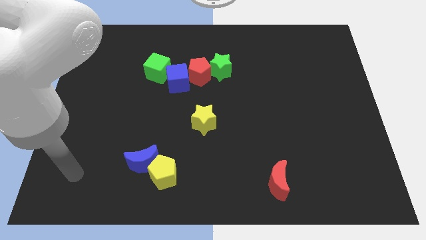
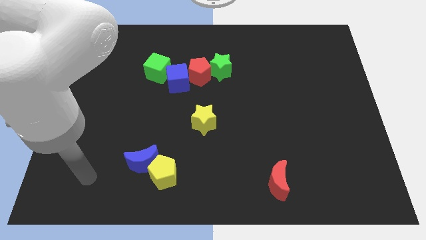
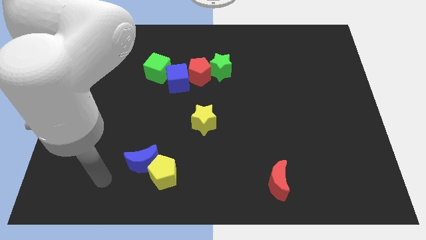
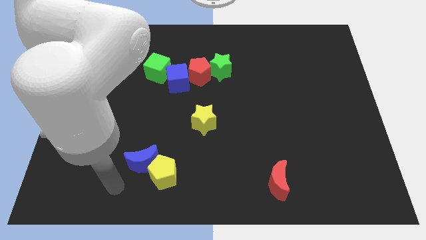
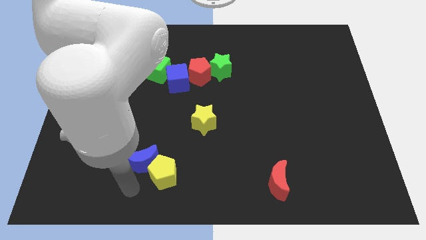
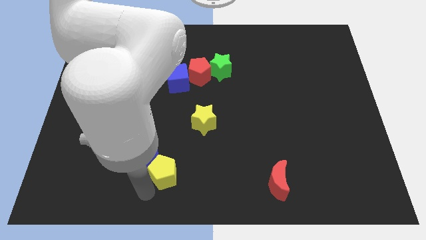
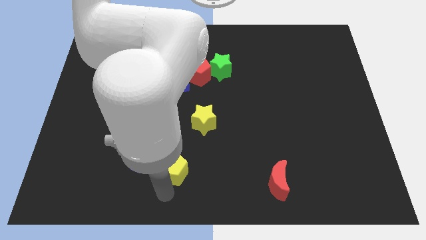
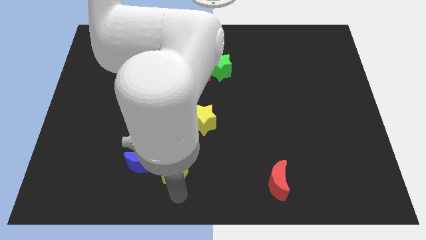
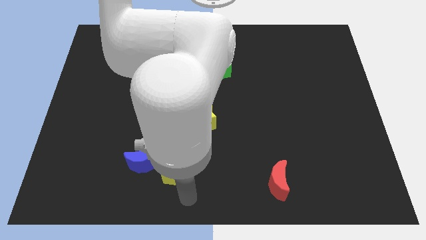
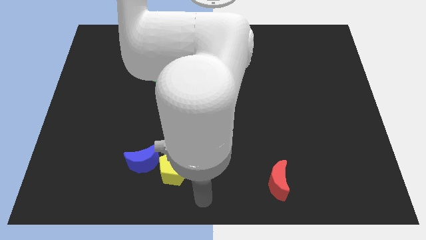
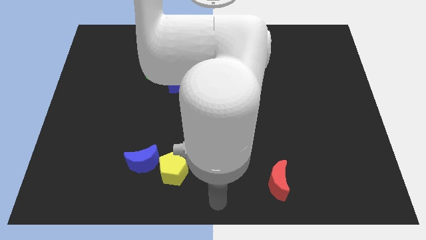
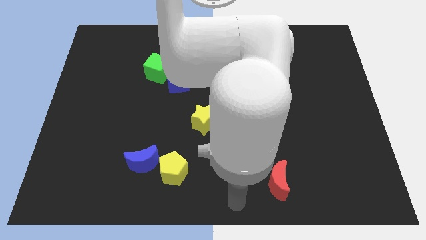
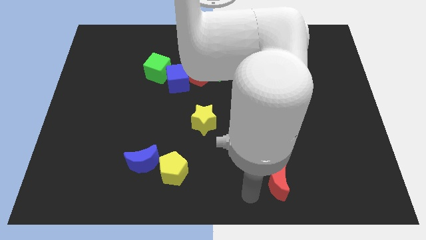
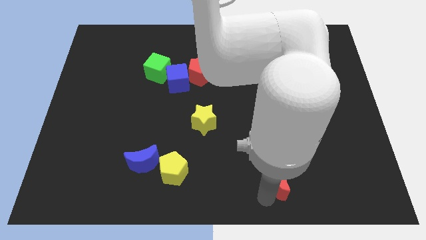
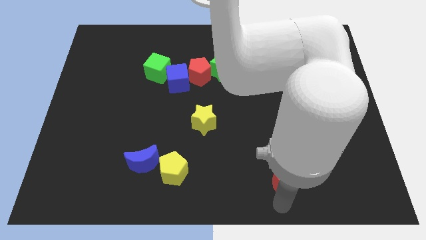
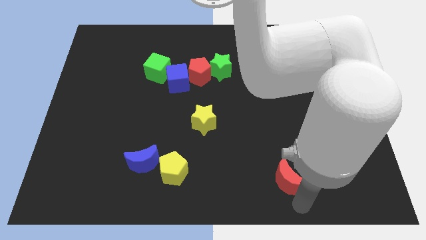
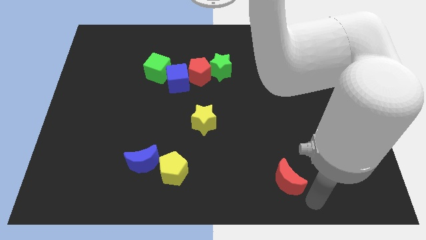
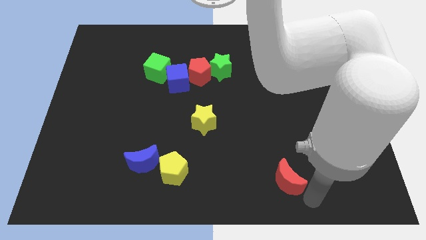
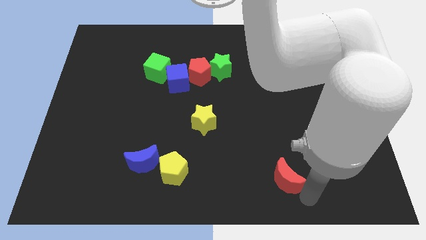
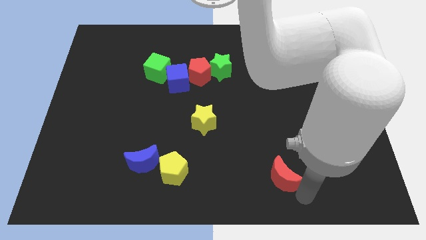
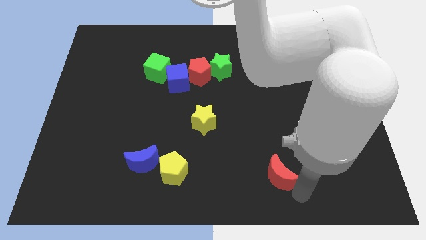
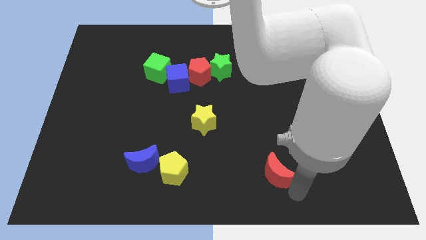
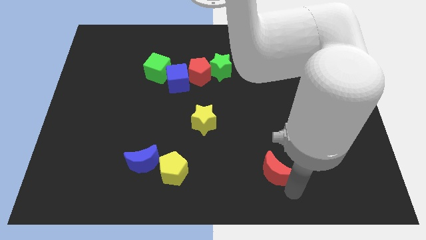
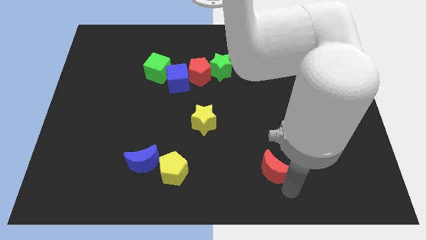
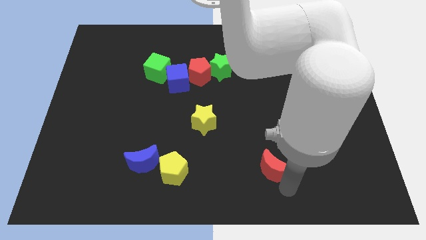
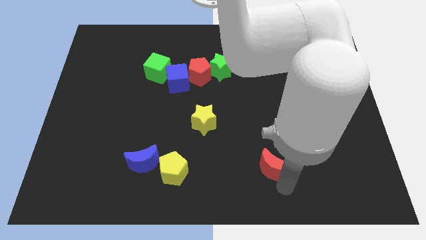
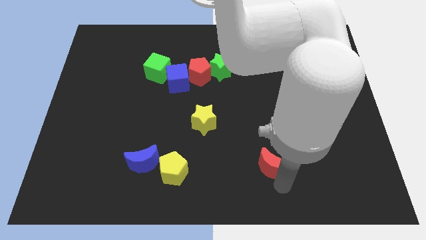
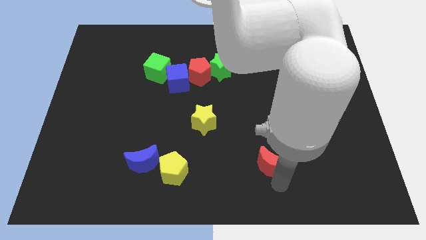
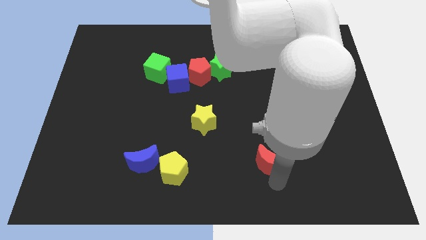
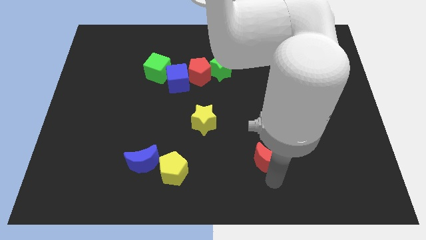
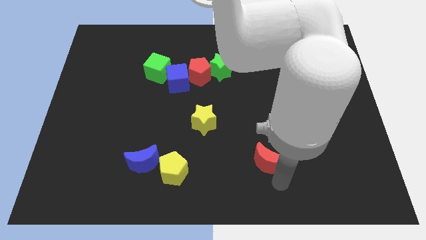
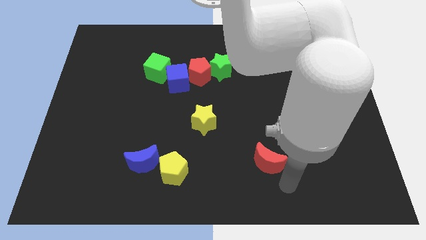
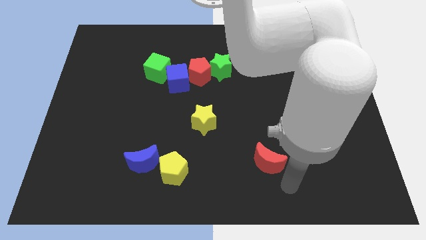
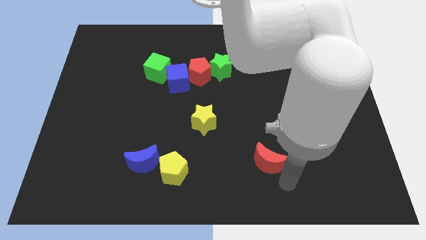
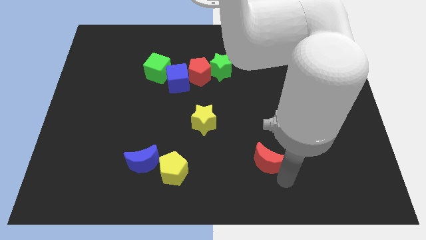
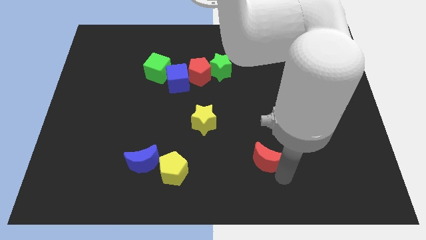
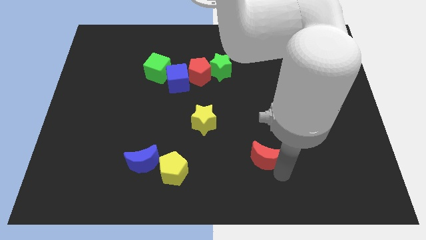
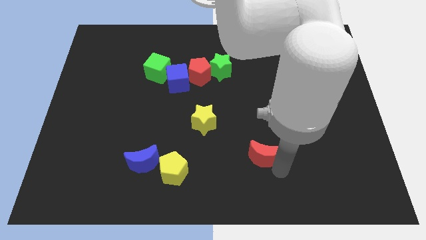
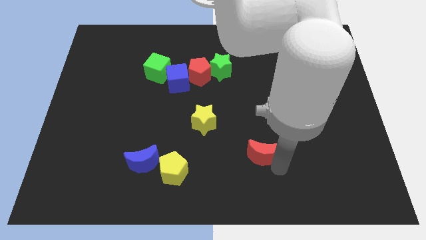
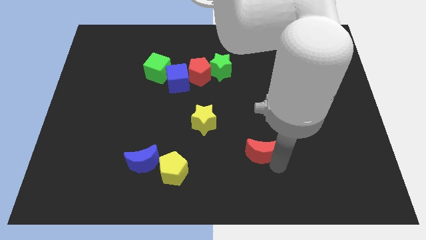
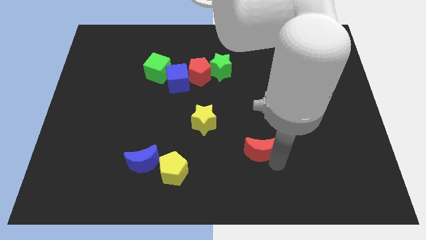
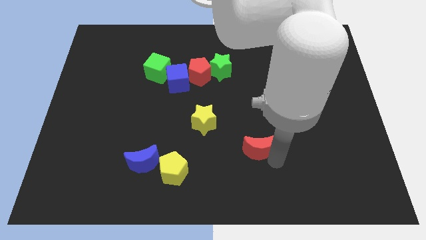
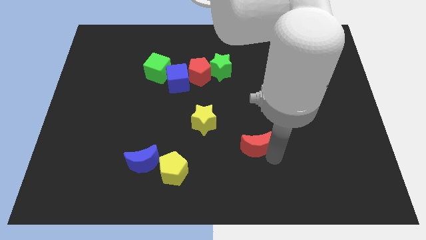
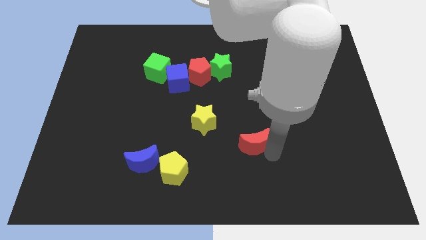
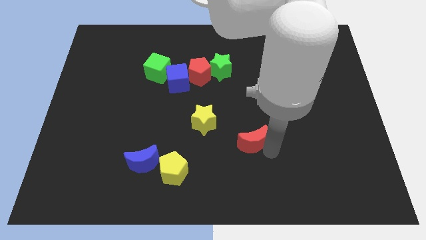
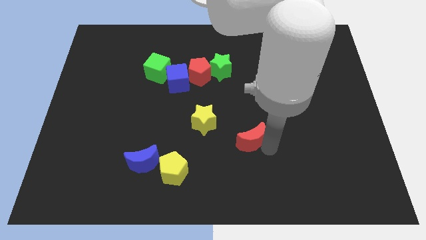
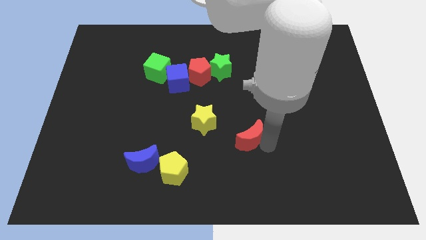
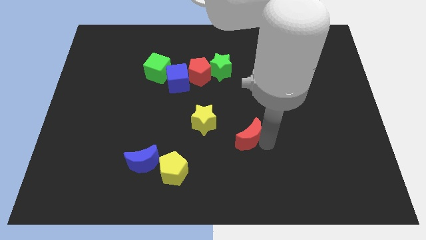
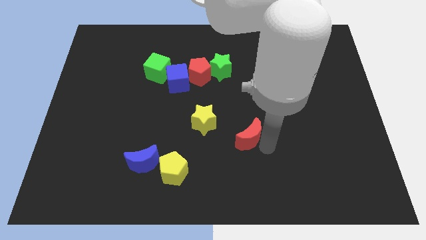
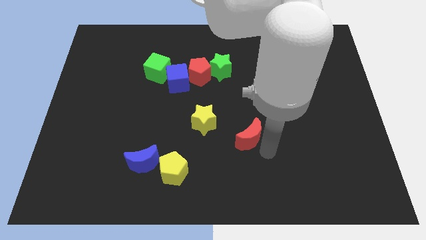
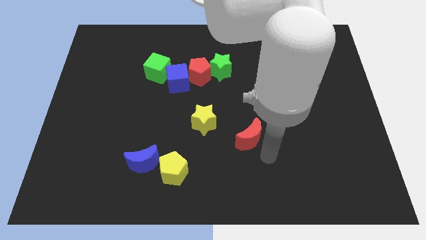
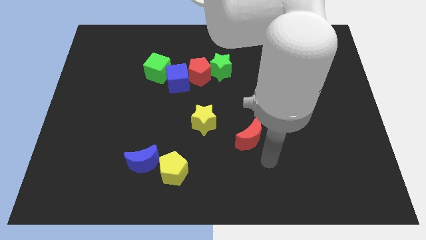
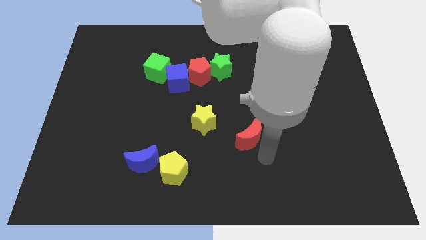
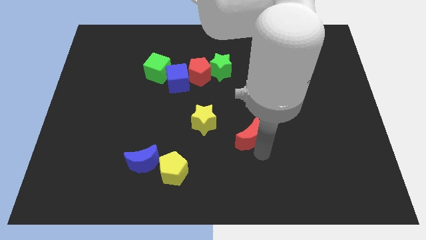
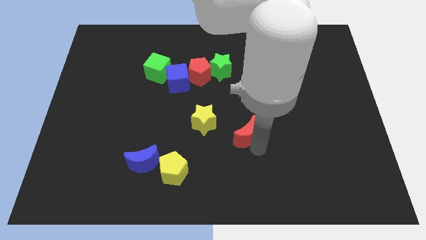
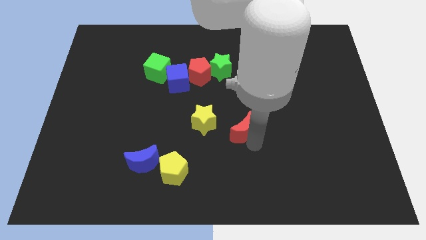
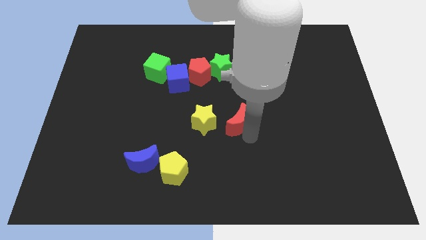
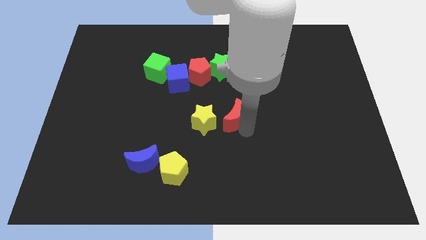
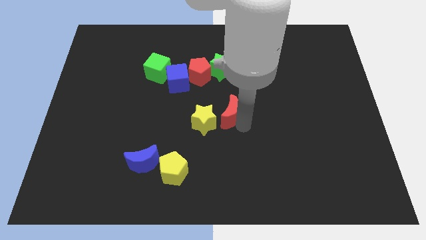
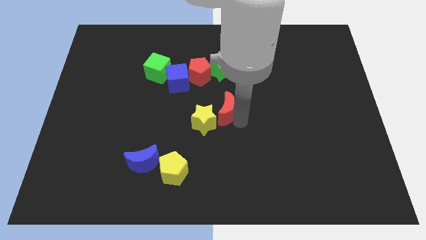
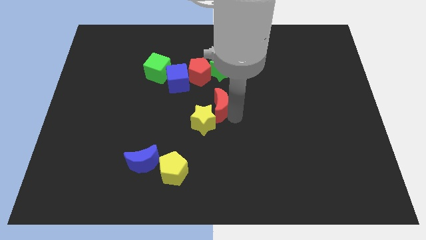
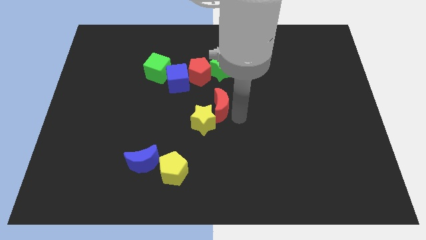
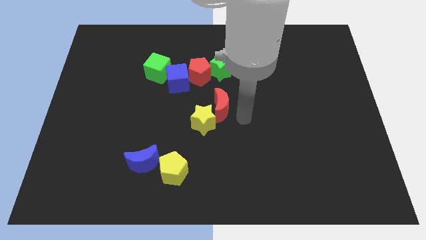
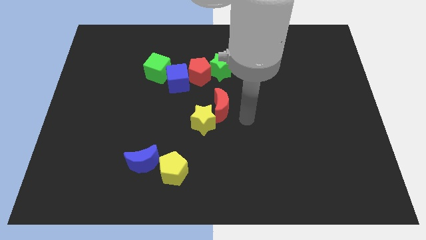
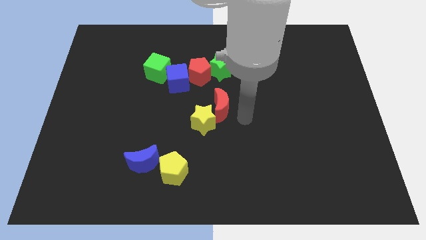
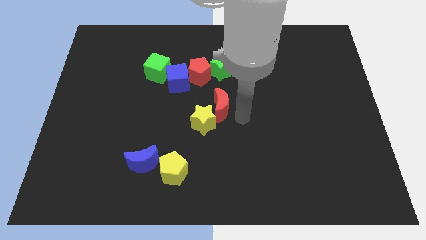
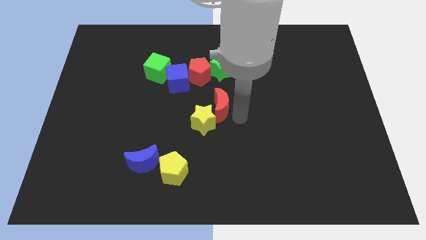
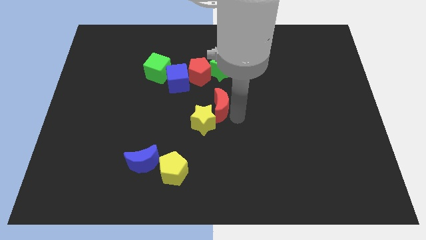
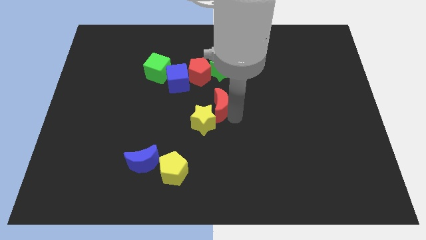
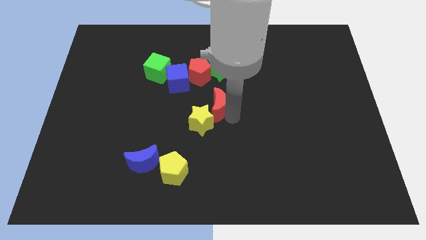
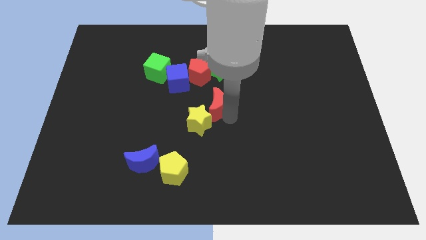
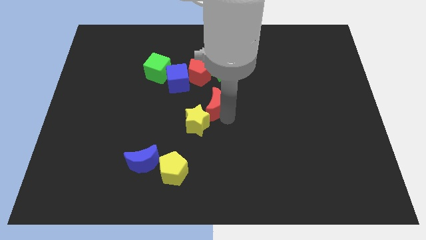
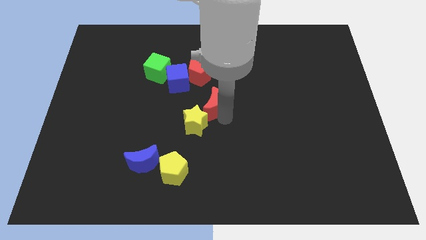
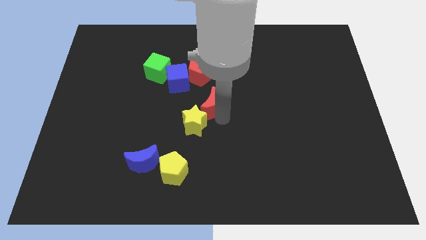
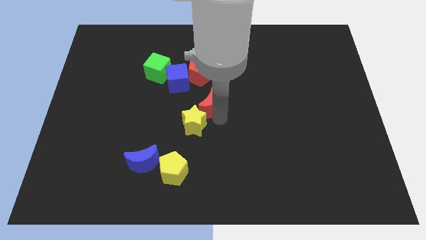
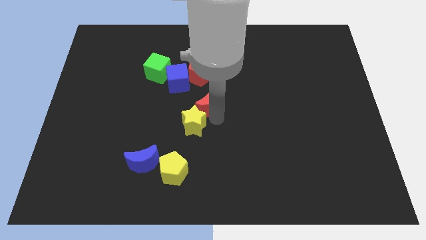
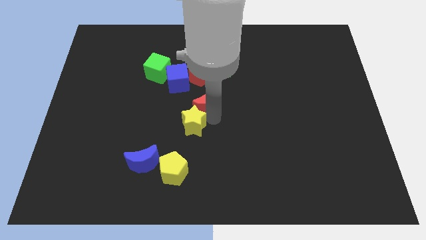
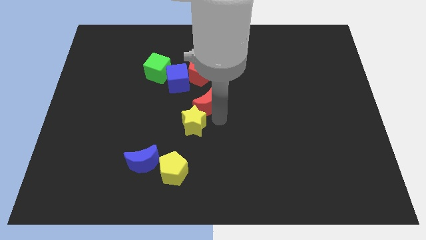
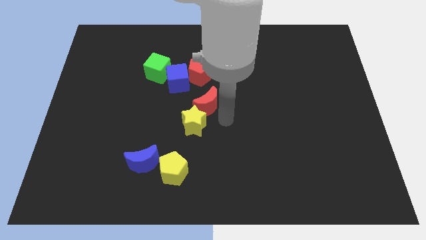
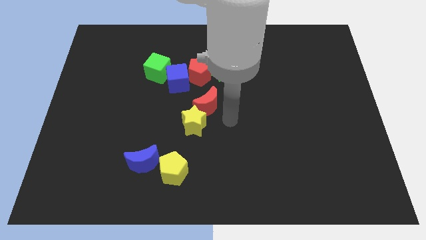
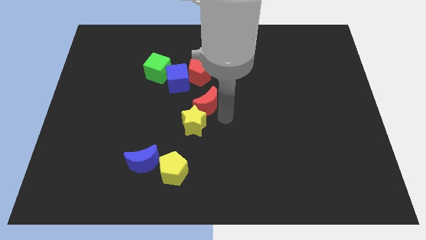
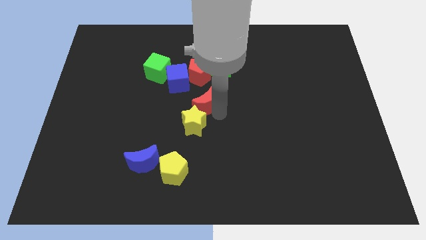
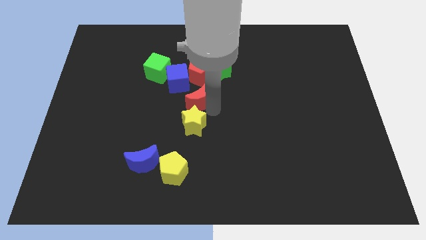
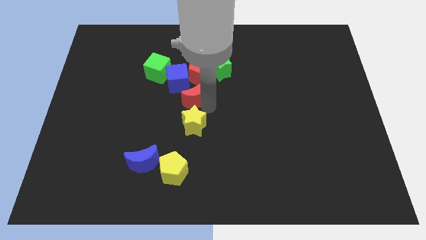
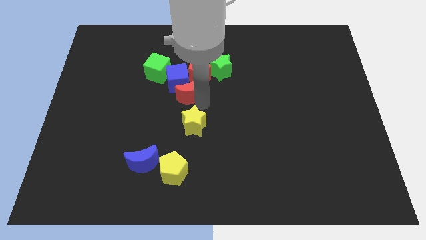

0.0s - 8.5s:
put the red moon towards the blue cube
